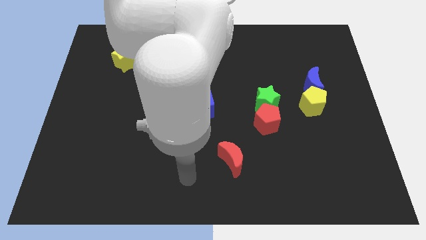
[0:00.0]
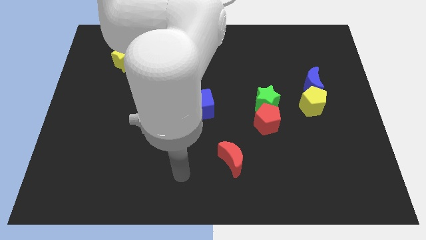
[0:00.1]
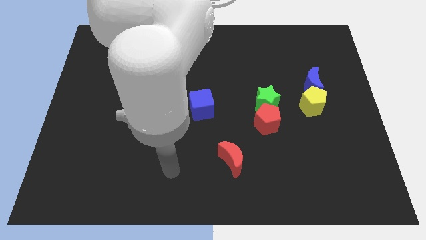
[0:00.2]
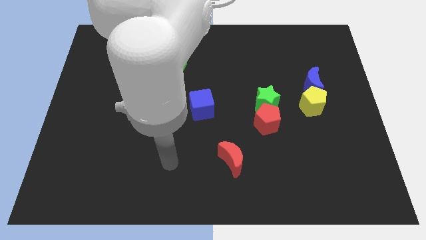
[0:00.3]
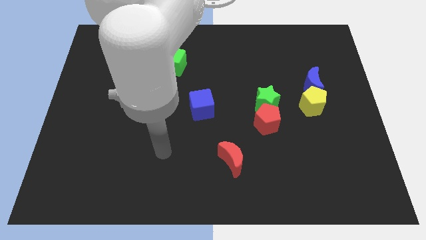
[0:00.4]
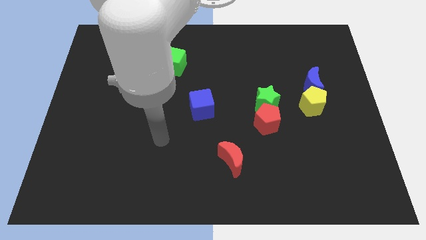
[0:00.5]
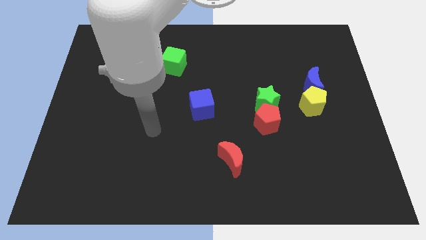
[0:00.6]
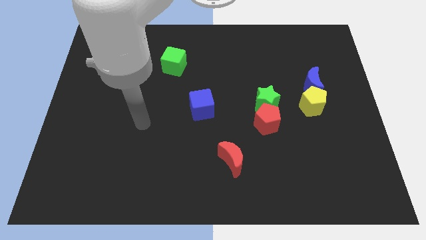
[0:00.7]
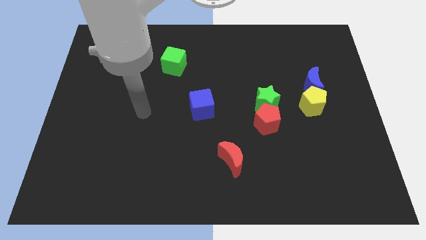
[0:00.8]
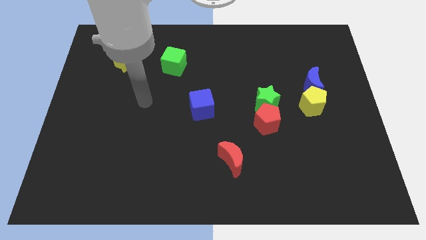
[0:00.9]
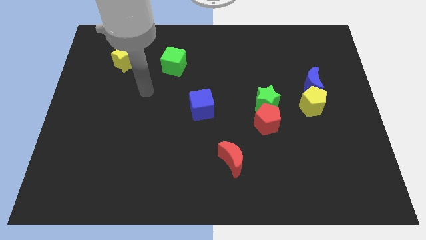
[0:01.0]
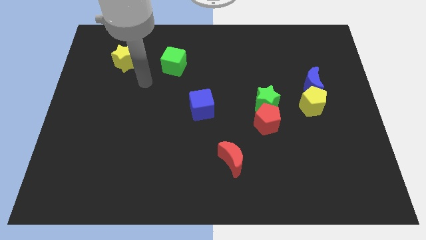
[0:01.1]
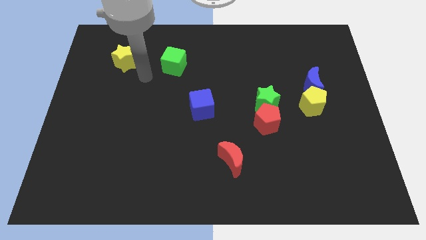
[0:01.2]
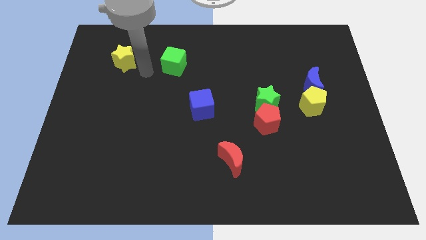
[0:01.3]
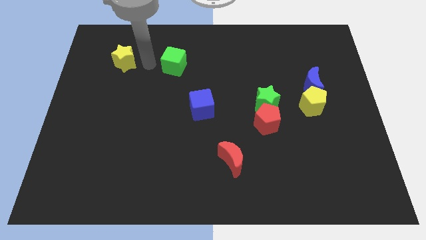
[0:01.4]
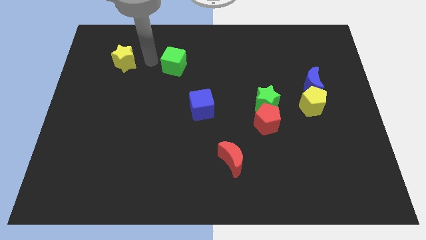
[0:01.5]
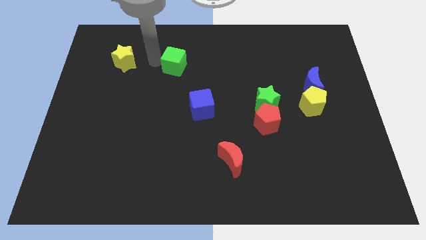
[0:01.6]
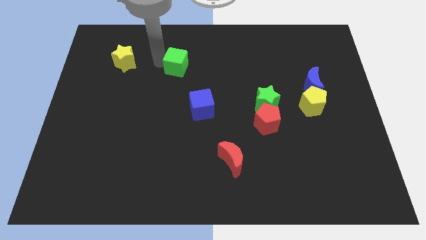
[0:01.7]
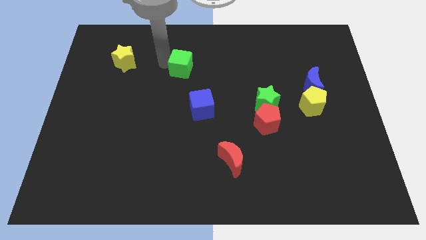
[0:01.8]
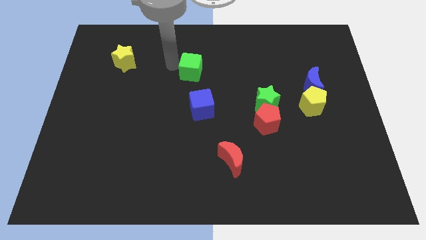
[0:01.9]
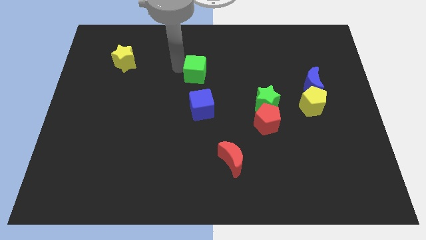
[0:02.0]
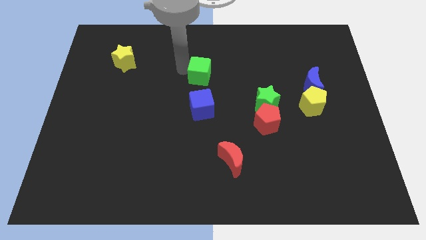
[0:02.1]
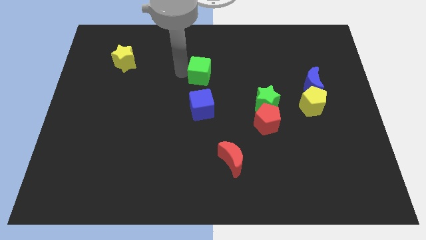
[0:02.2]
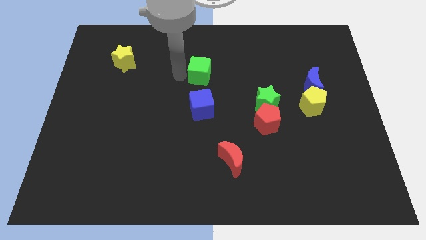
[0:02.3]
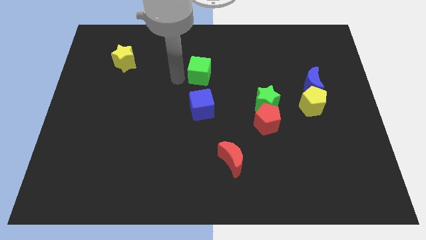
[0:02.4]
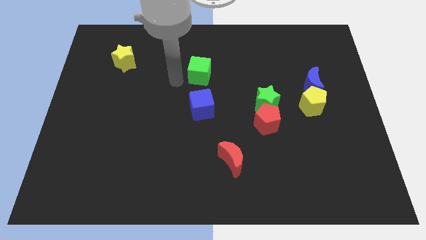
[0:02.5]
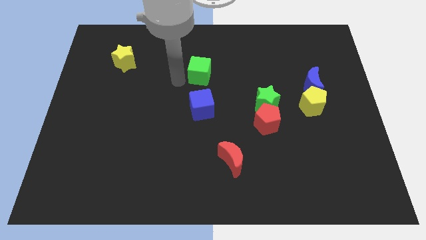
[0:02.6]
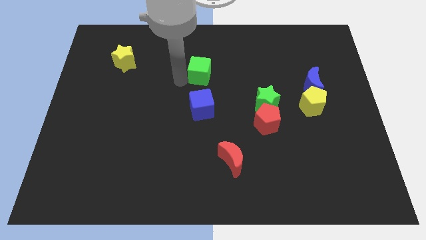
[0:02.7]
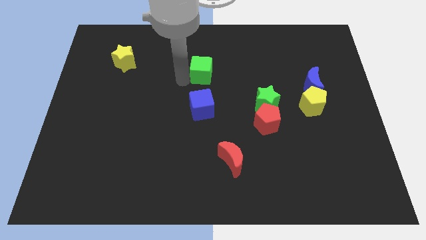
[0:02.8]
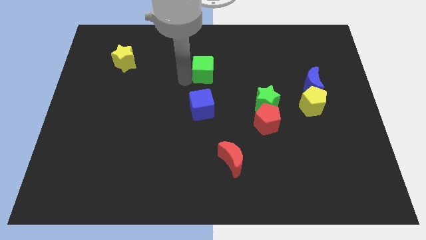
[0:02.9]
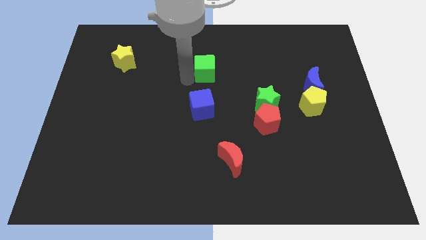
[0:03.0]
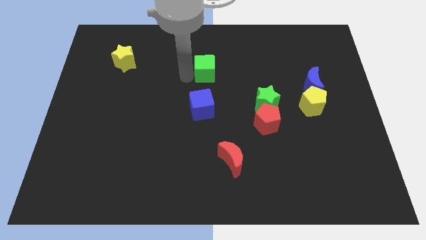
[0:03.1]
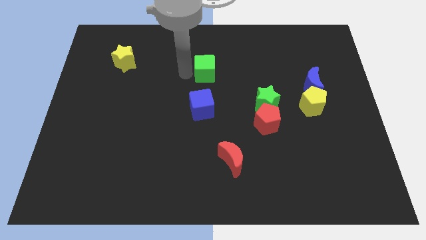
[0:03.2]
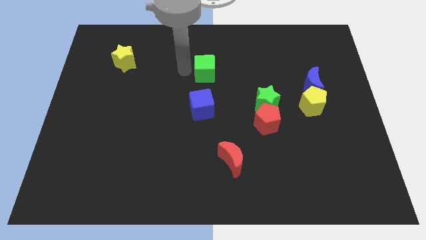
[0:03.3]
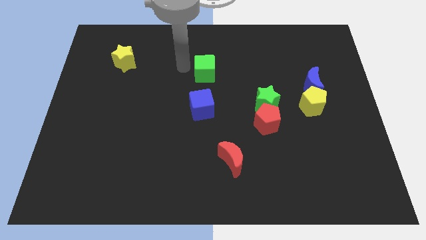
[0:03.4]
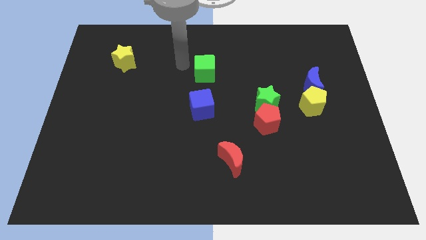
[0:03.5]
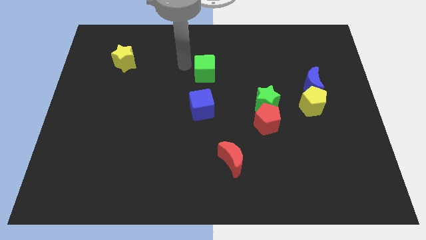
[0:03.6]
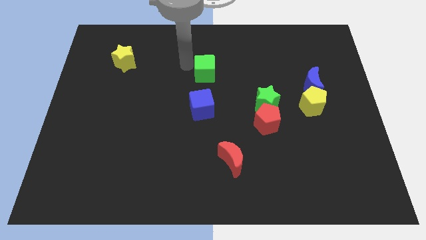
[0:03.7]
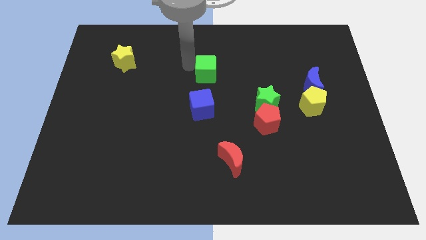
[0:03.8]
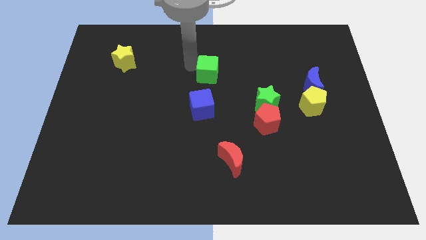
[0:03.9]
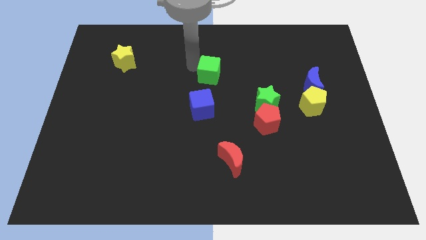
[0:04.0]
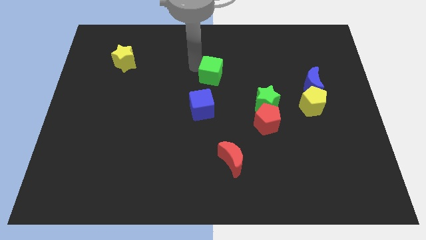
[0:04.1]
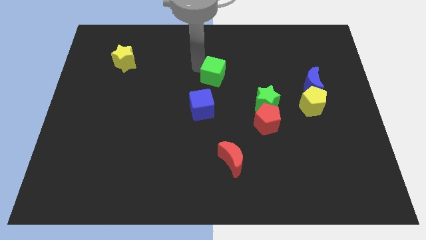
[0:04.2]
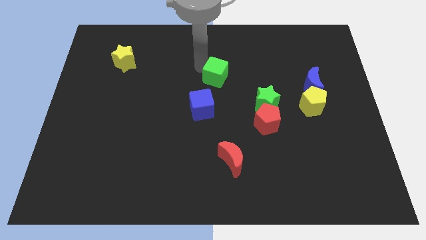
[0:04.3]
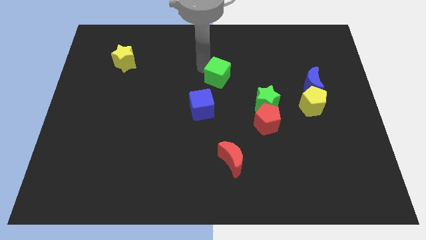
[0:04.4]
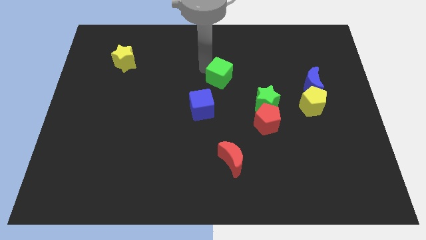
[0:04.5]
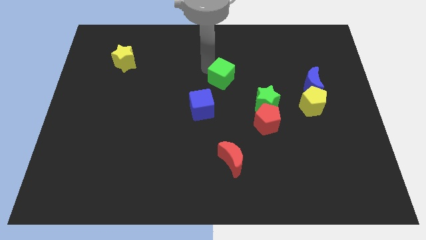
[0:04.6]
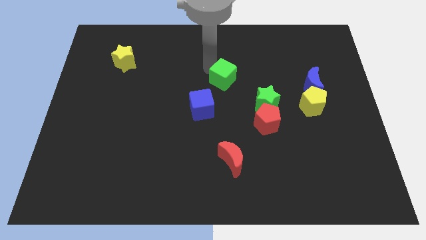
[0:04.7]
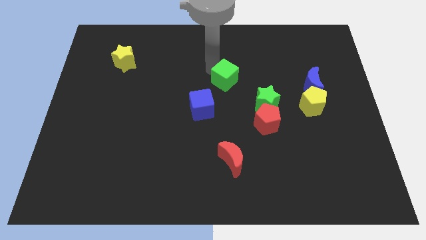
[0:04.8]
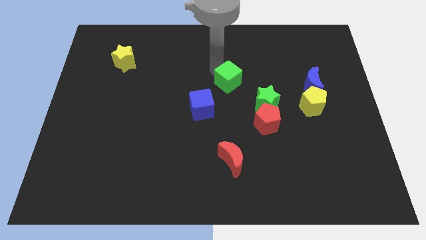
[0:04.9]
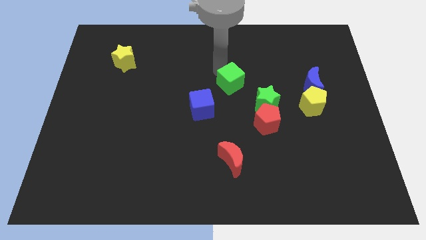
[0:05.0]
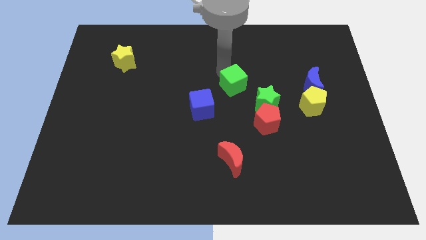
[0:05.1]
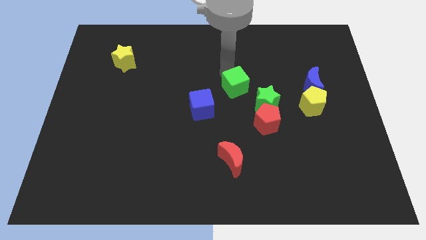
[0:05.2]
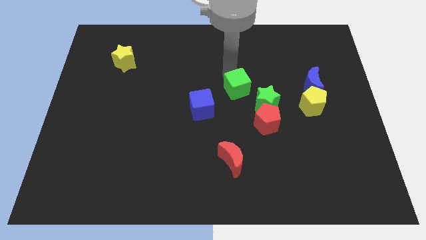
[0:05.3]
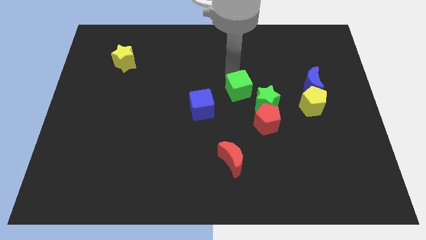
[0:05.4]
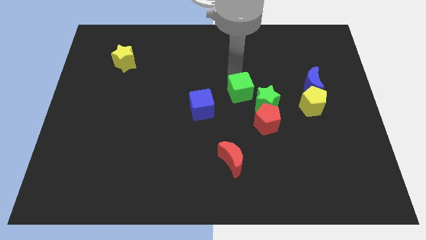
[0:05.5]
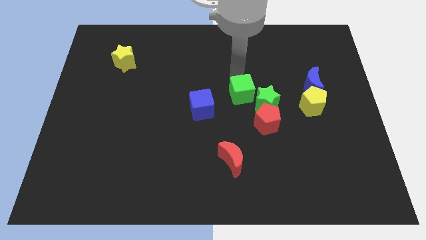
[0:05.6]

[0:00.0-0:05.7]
put the green cube just right of the blue cube

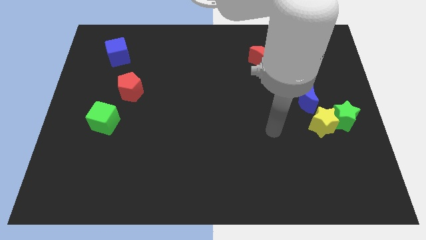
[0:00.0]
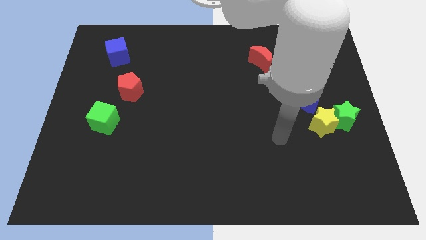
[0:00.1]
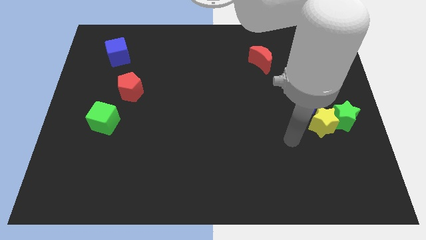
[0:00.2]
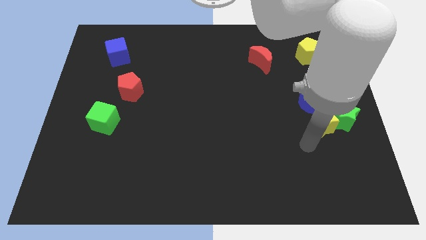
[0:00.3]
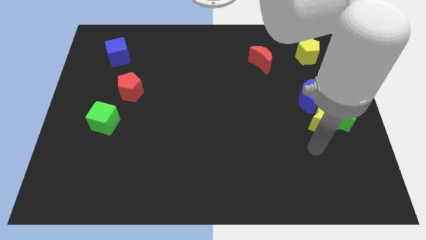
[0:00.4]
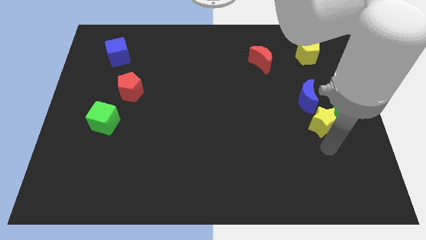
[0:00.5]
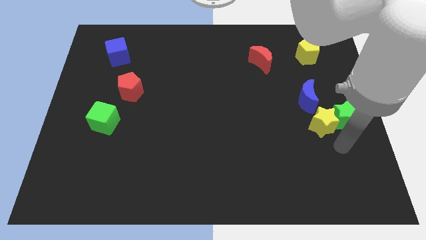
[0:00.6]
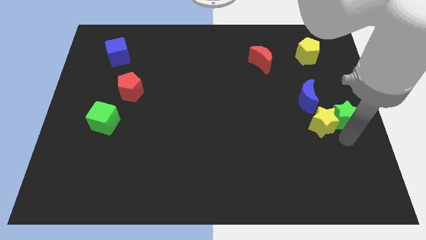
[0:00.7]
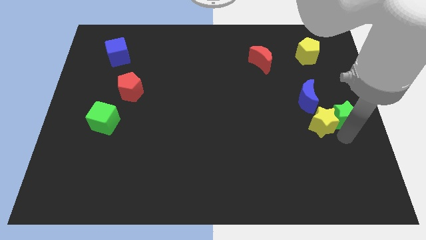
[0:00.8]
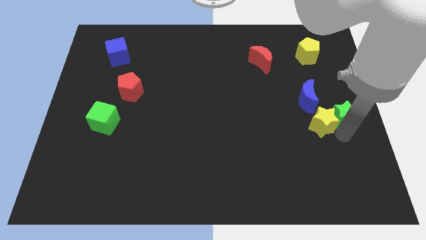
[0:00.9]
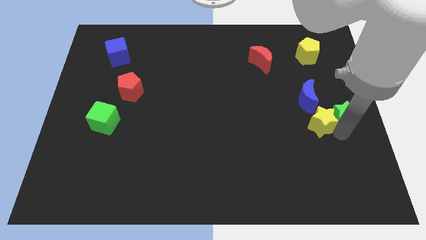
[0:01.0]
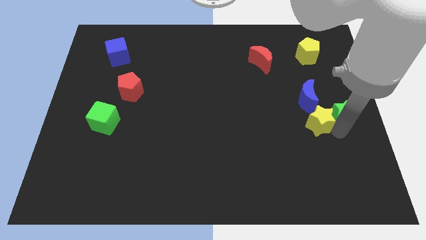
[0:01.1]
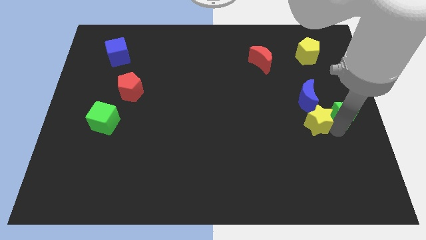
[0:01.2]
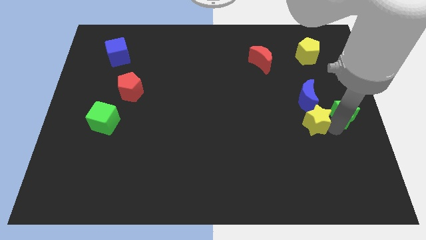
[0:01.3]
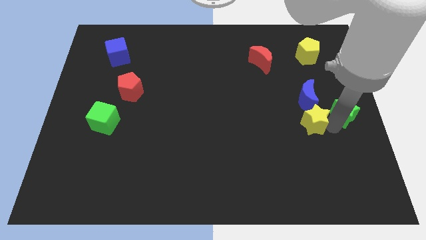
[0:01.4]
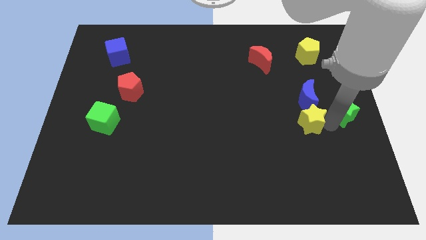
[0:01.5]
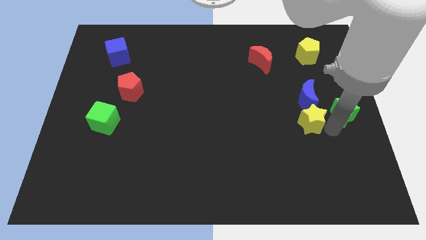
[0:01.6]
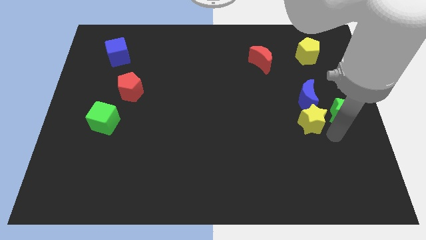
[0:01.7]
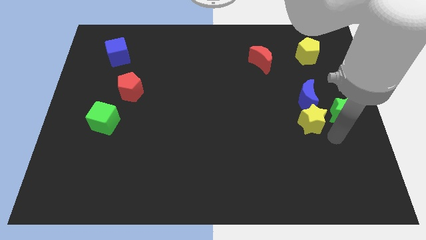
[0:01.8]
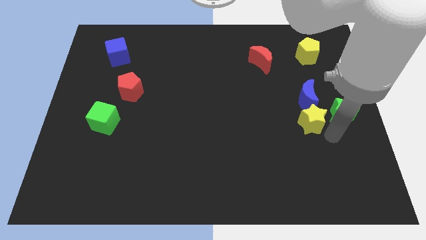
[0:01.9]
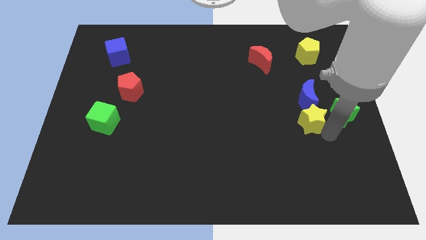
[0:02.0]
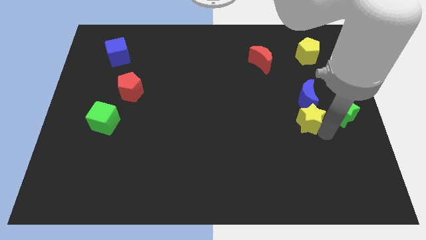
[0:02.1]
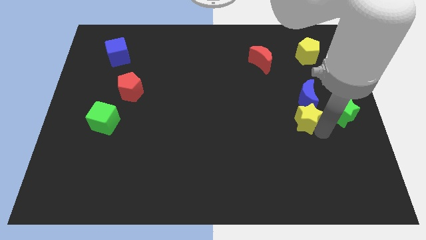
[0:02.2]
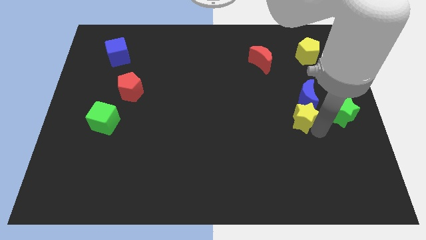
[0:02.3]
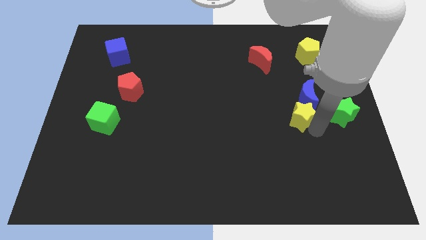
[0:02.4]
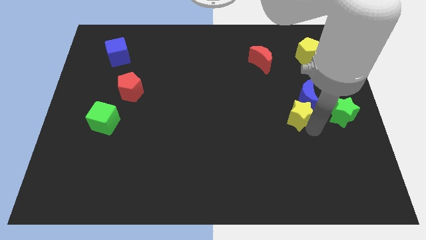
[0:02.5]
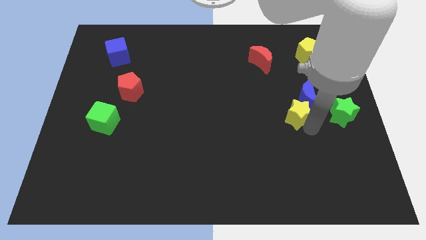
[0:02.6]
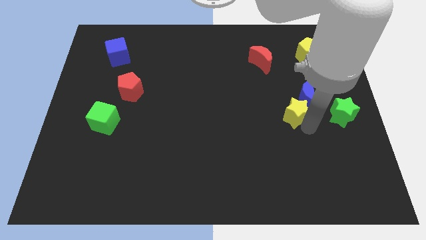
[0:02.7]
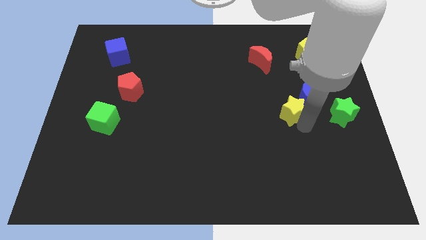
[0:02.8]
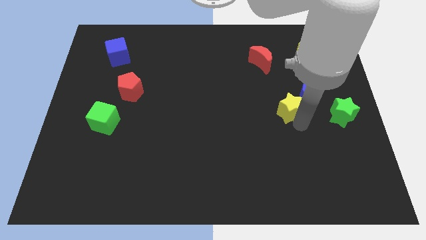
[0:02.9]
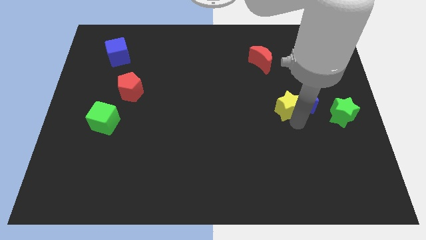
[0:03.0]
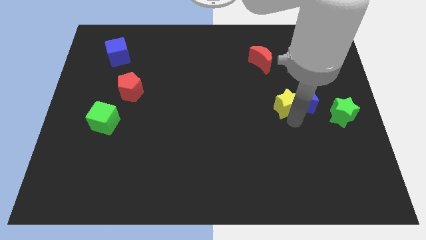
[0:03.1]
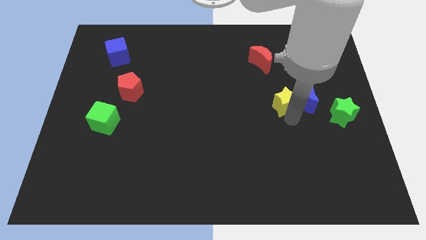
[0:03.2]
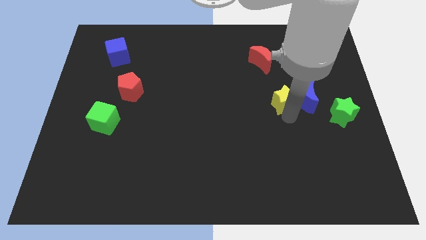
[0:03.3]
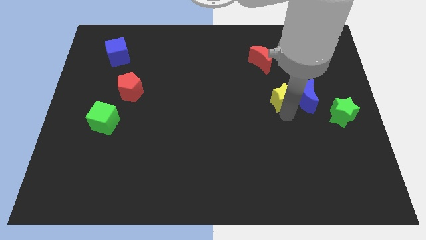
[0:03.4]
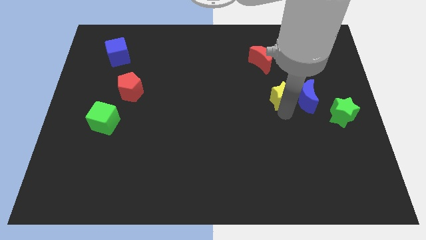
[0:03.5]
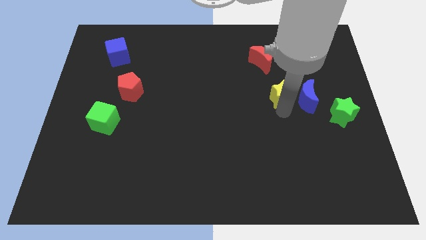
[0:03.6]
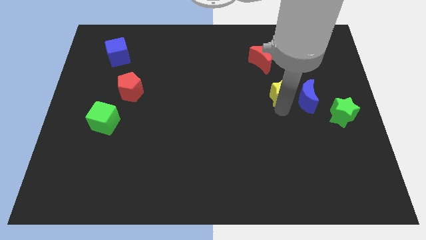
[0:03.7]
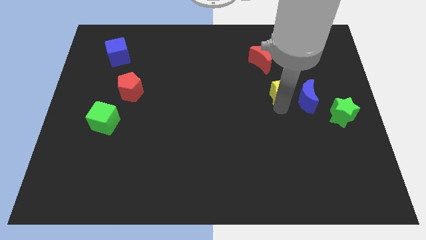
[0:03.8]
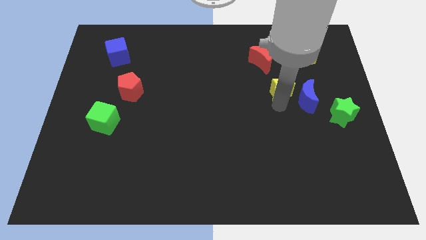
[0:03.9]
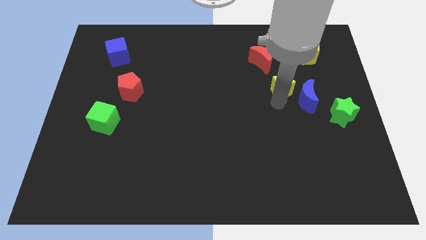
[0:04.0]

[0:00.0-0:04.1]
move the yellow star to the bottom right side of the red moon
